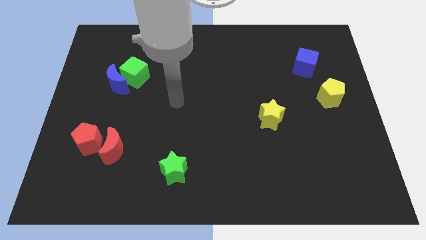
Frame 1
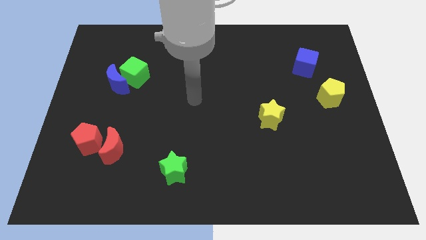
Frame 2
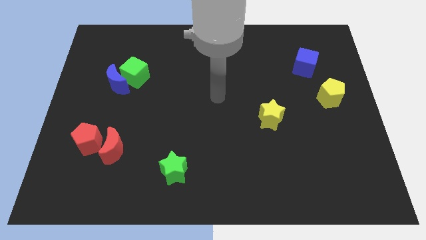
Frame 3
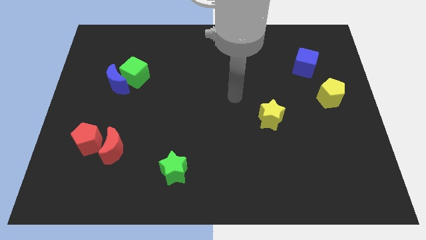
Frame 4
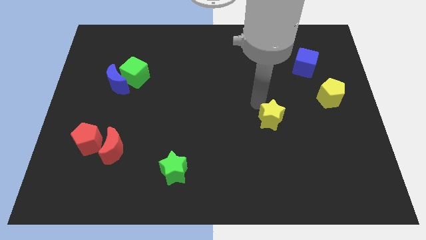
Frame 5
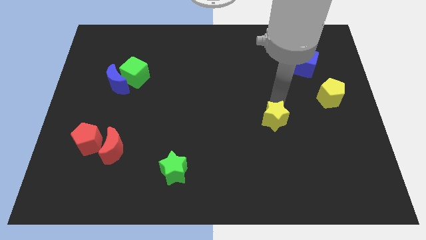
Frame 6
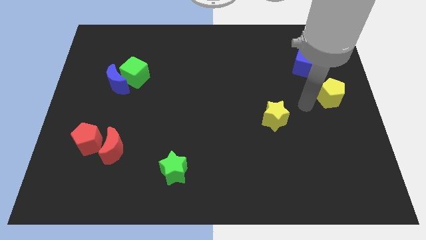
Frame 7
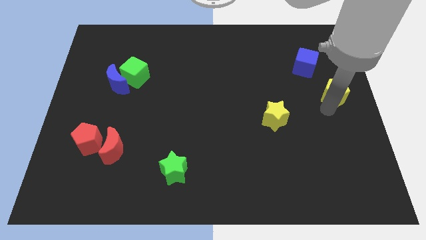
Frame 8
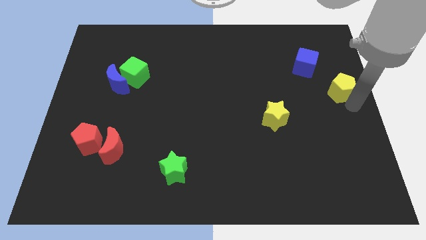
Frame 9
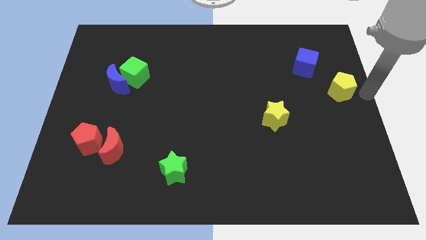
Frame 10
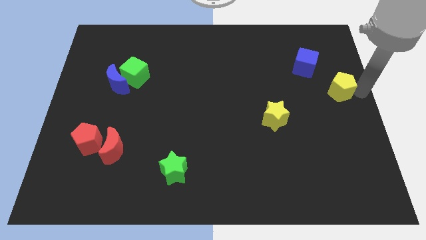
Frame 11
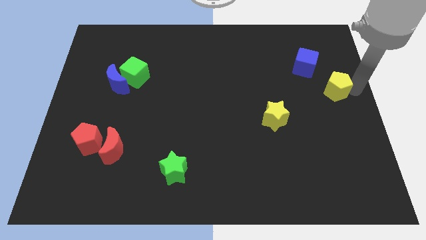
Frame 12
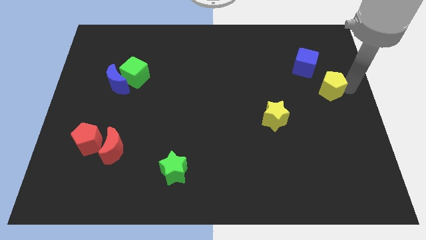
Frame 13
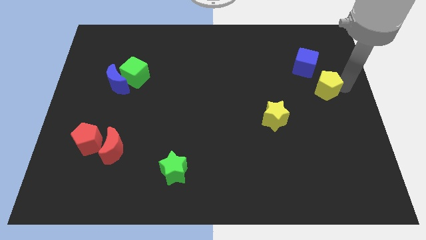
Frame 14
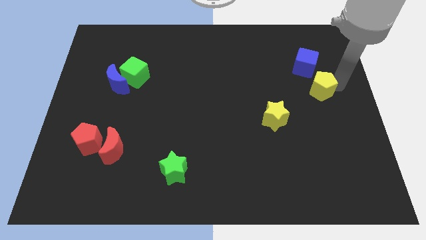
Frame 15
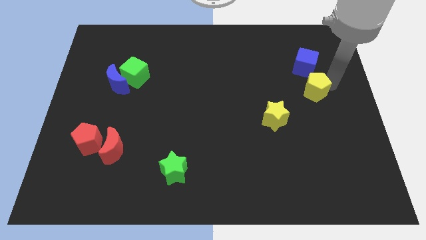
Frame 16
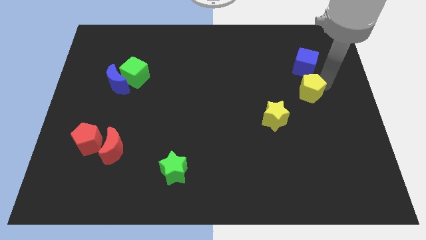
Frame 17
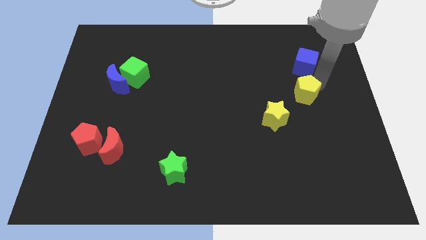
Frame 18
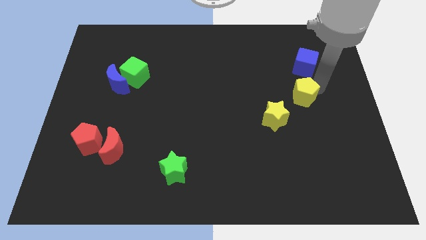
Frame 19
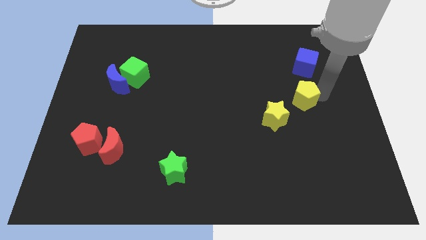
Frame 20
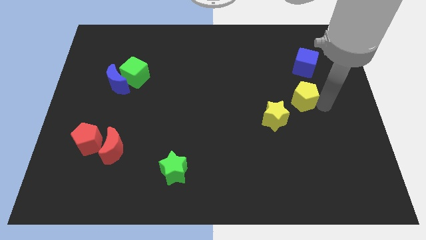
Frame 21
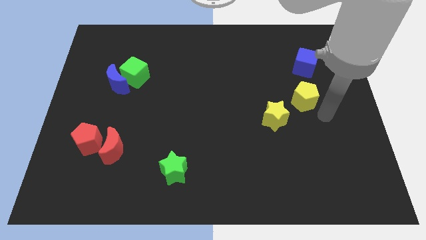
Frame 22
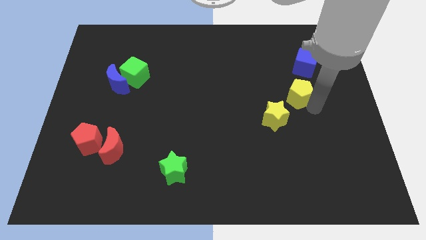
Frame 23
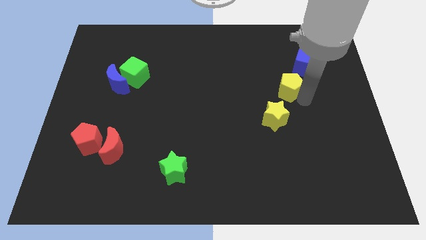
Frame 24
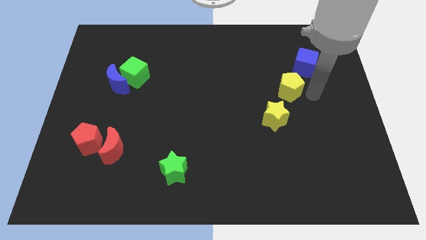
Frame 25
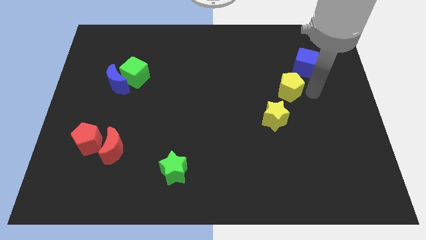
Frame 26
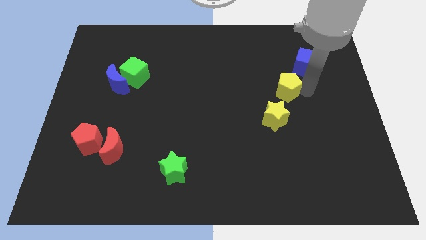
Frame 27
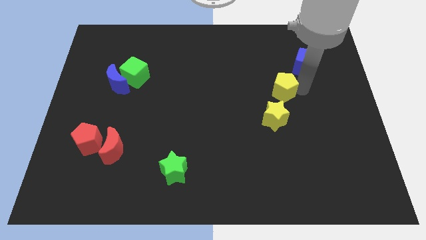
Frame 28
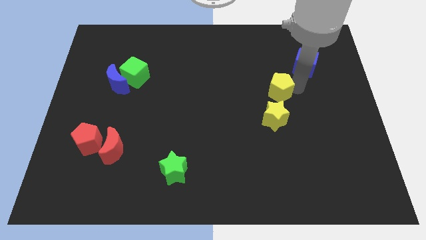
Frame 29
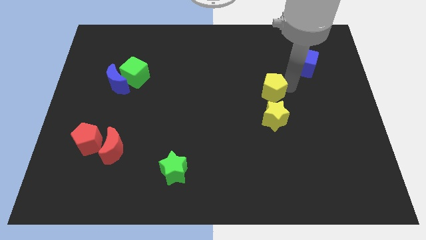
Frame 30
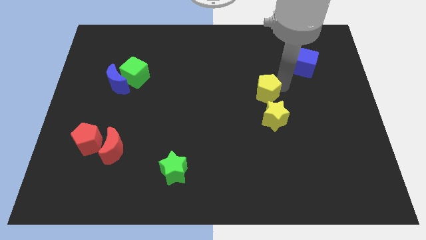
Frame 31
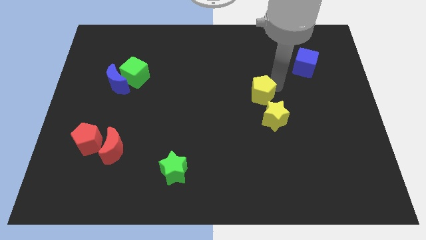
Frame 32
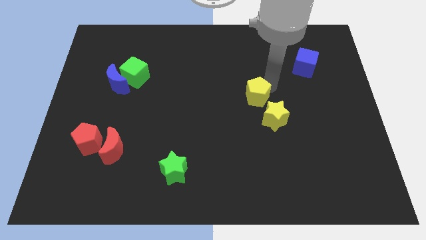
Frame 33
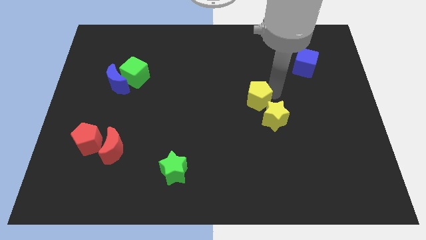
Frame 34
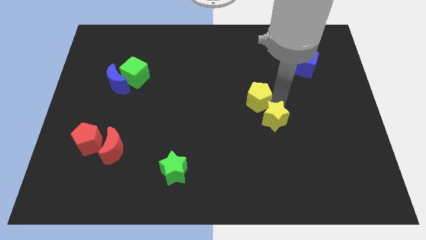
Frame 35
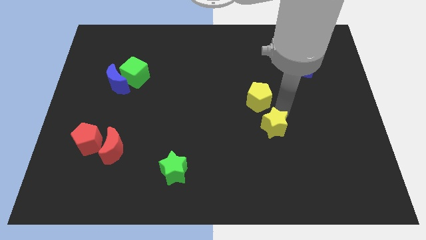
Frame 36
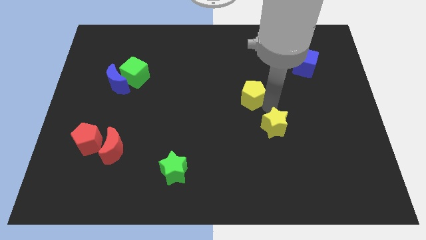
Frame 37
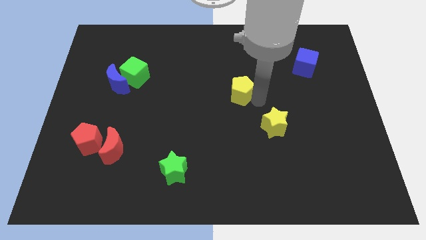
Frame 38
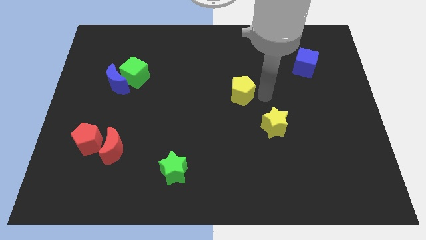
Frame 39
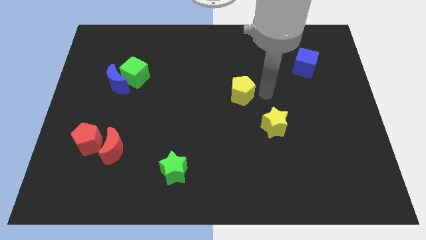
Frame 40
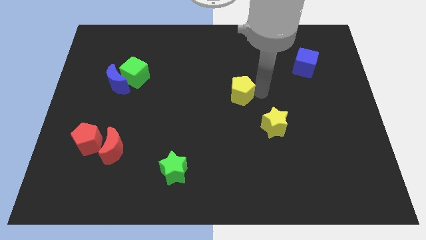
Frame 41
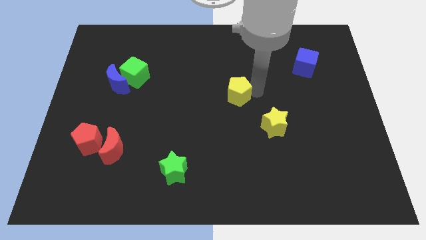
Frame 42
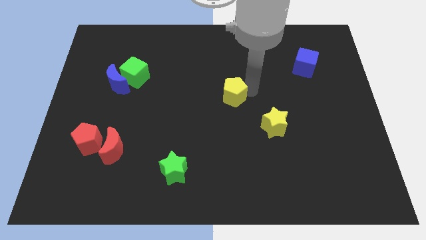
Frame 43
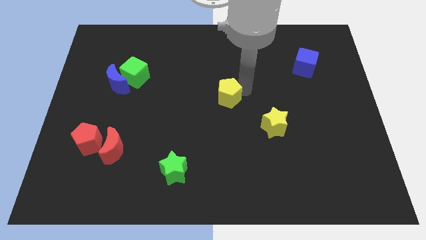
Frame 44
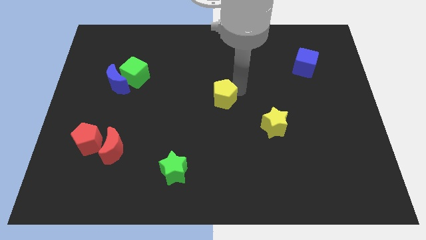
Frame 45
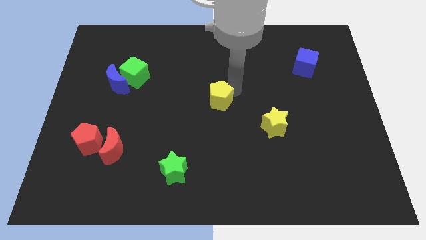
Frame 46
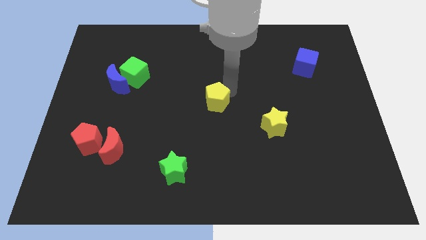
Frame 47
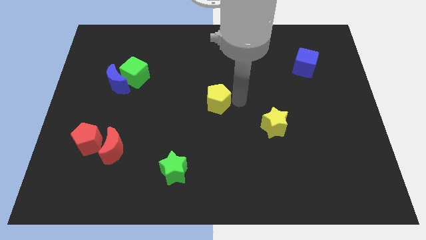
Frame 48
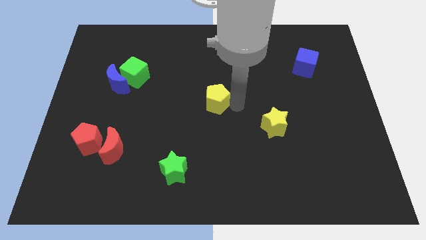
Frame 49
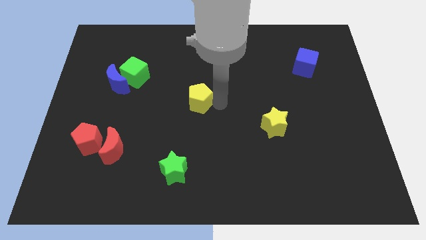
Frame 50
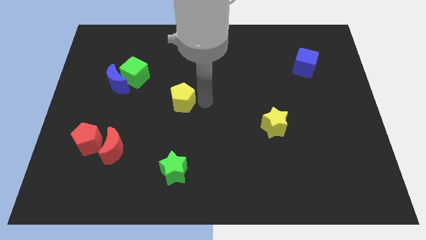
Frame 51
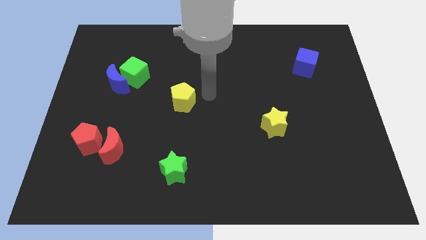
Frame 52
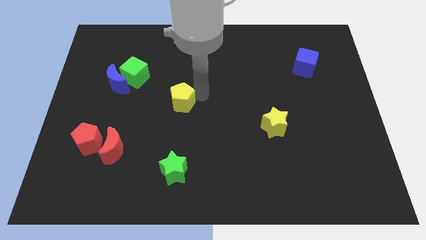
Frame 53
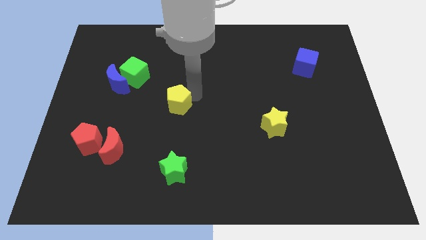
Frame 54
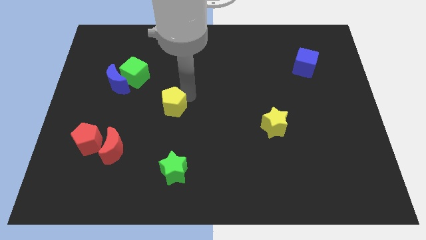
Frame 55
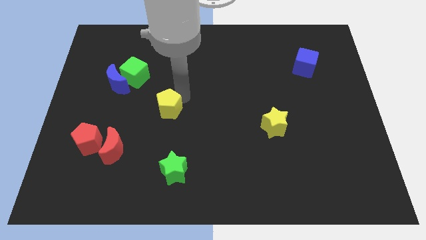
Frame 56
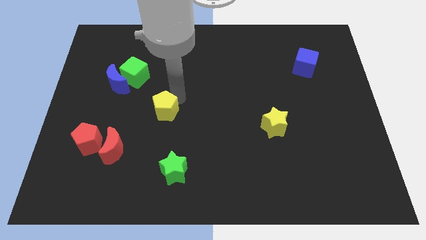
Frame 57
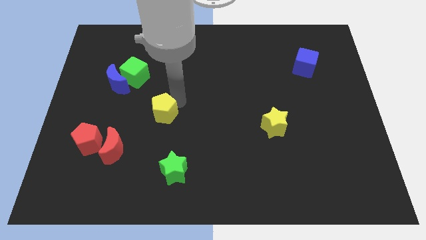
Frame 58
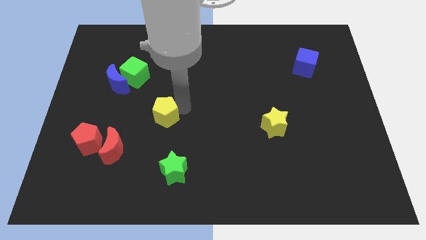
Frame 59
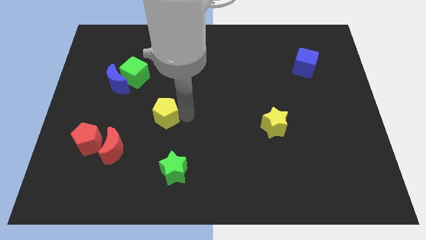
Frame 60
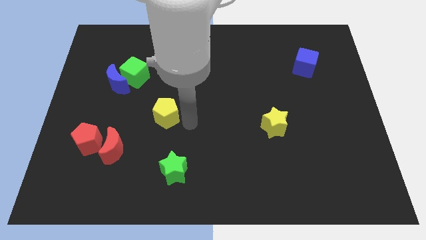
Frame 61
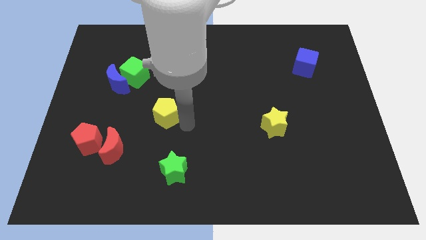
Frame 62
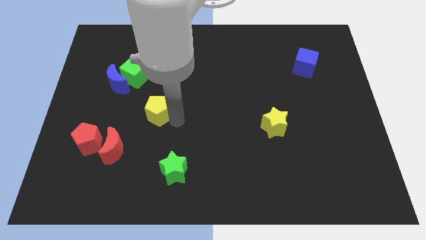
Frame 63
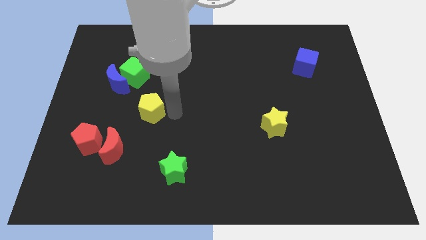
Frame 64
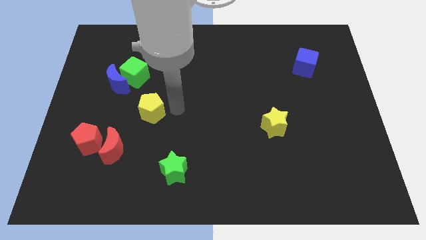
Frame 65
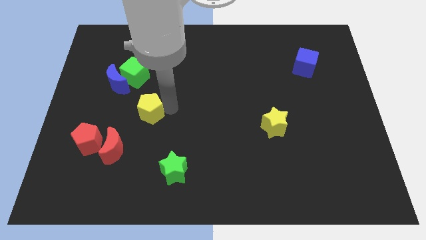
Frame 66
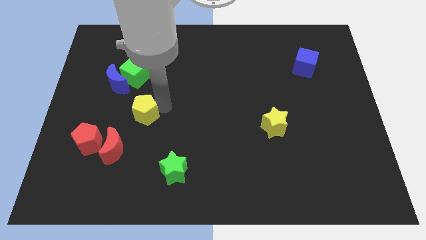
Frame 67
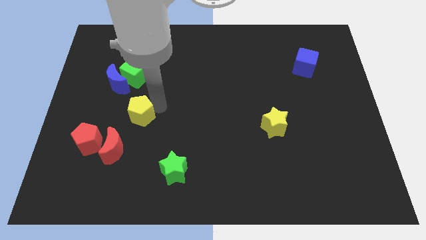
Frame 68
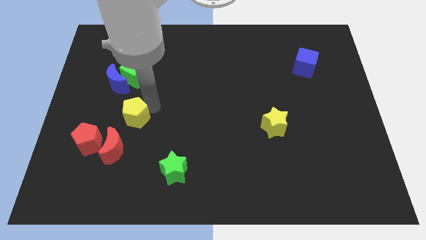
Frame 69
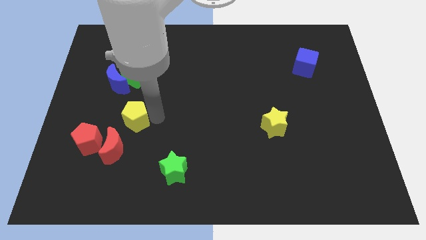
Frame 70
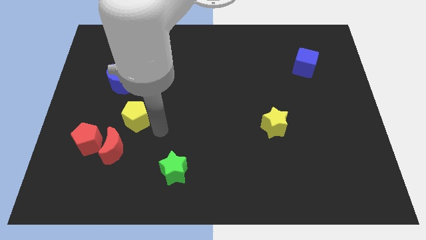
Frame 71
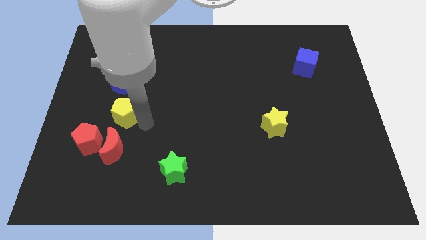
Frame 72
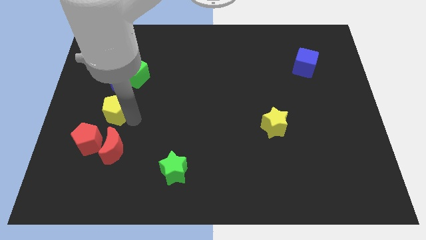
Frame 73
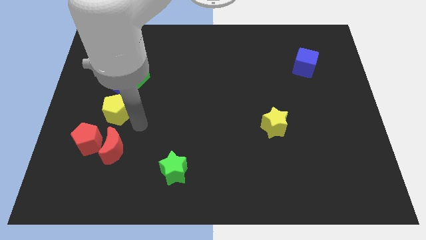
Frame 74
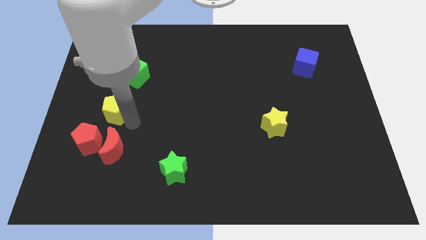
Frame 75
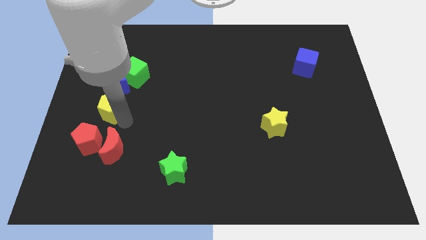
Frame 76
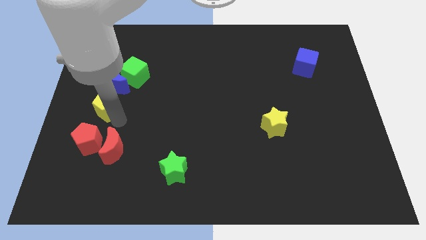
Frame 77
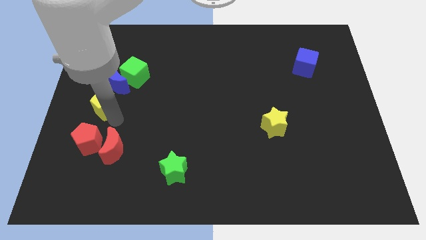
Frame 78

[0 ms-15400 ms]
move the yellow pentagon to the bottom left side of the blue moon
